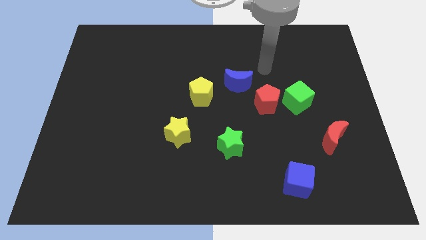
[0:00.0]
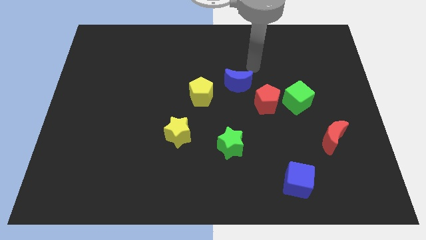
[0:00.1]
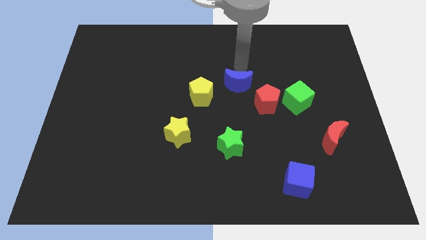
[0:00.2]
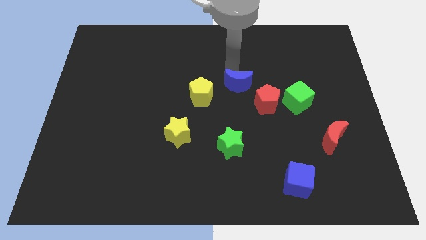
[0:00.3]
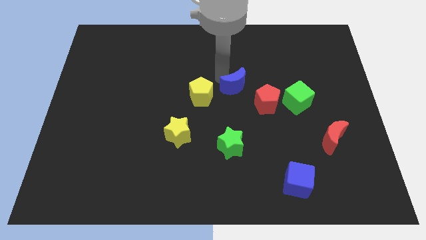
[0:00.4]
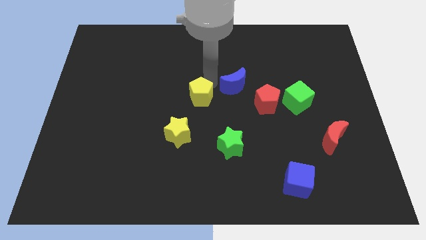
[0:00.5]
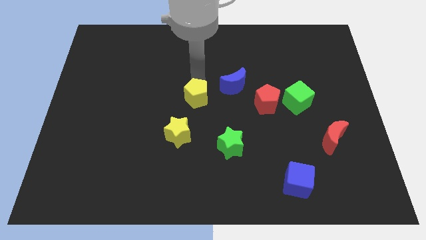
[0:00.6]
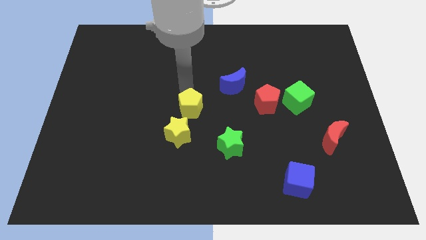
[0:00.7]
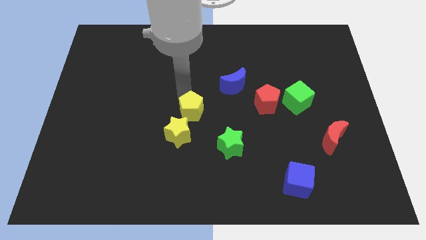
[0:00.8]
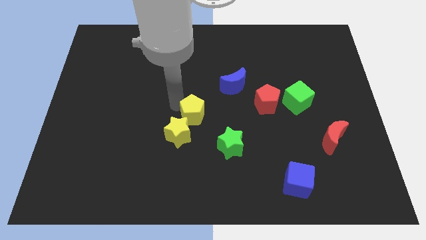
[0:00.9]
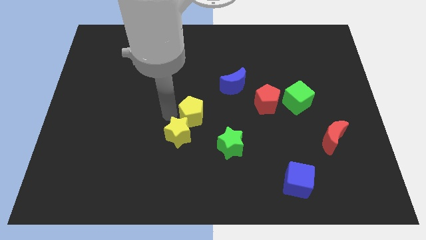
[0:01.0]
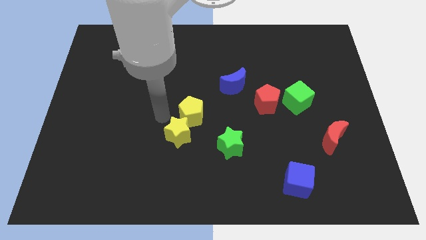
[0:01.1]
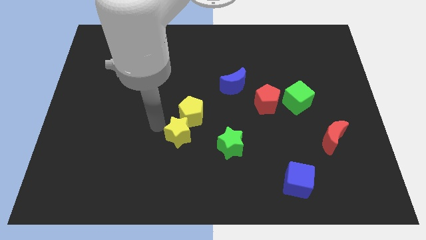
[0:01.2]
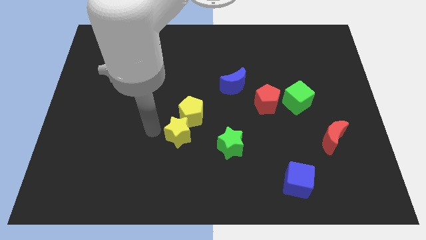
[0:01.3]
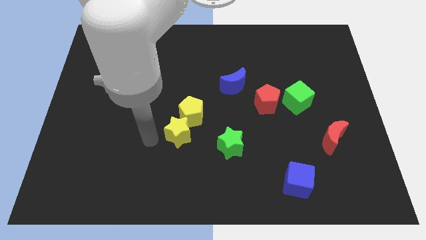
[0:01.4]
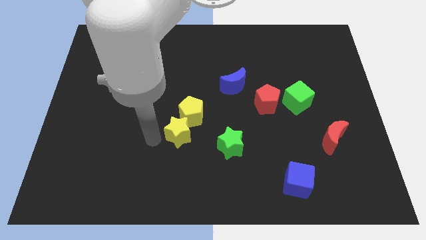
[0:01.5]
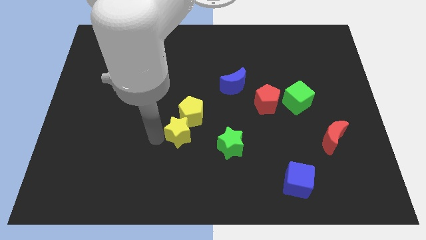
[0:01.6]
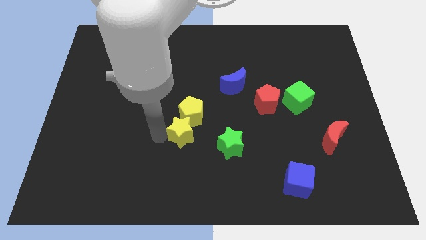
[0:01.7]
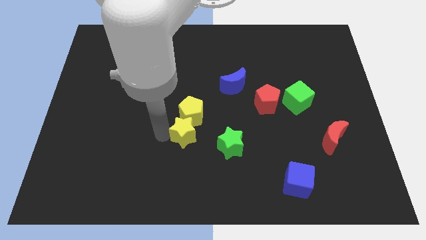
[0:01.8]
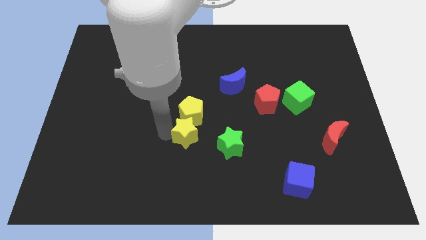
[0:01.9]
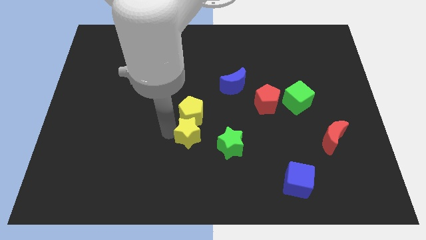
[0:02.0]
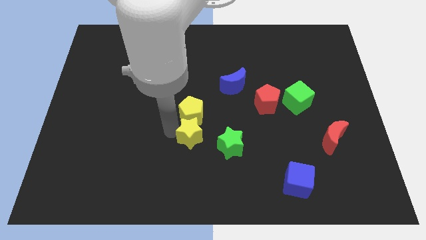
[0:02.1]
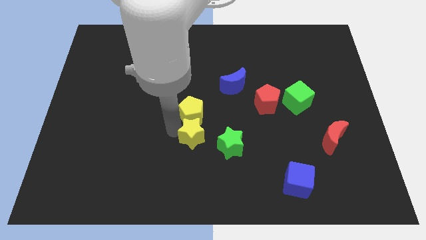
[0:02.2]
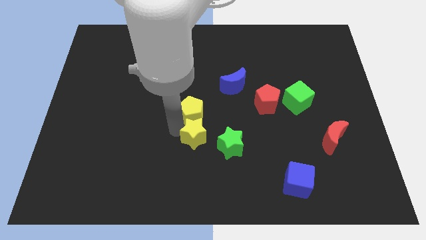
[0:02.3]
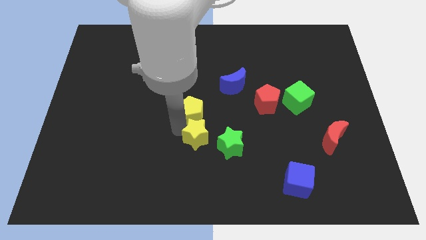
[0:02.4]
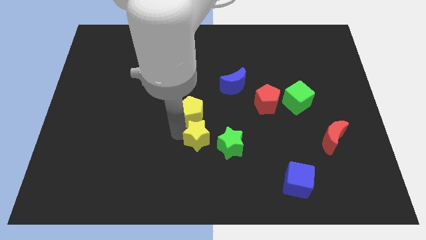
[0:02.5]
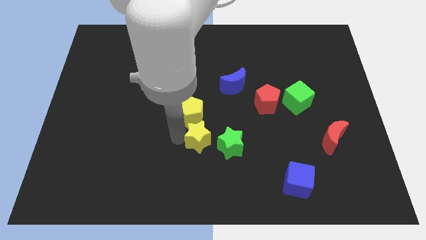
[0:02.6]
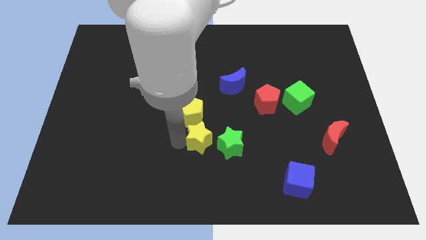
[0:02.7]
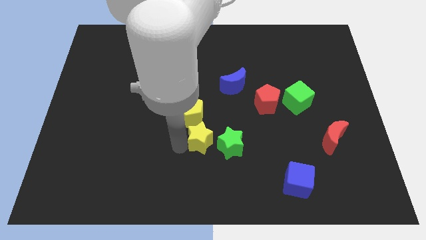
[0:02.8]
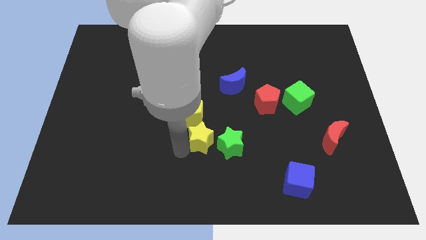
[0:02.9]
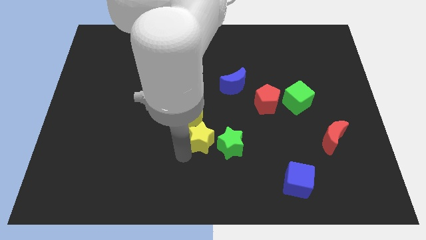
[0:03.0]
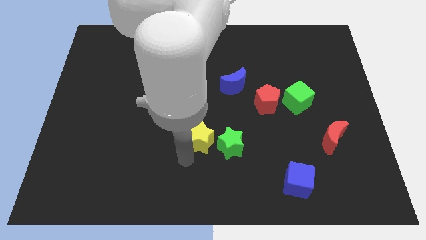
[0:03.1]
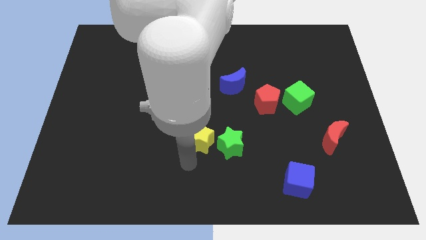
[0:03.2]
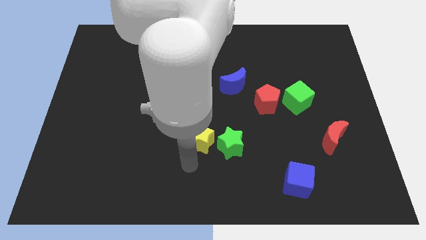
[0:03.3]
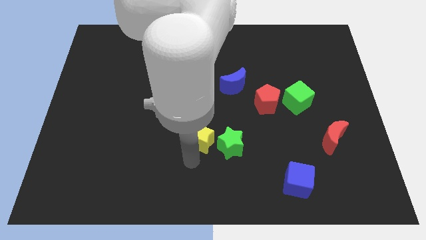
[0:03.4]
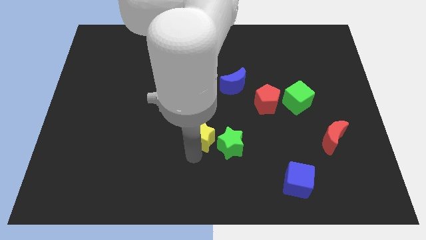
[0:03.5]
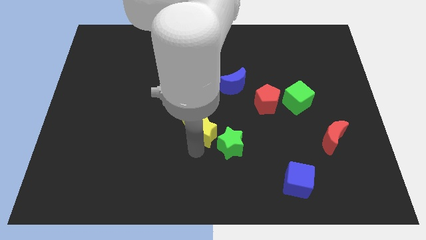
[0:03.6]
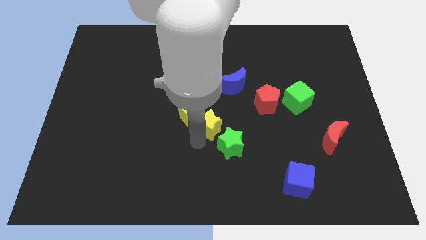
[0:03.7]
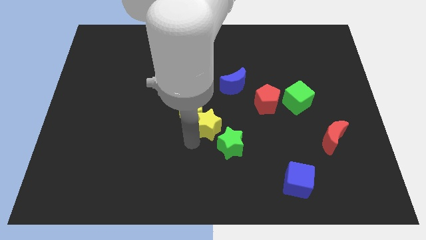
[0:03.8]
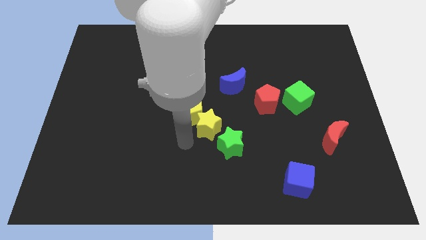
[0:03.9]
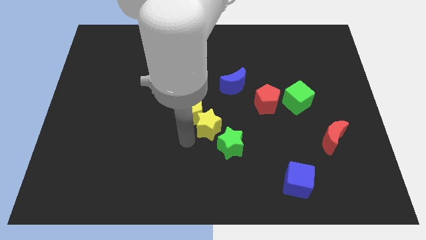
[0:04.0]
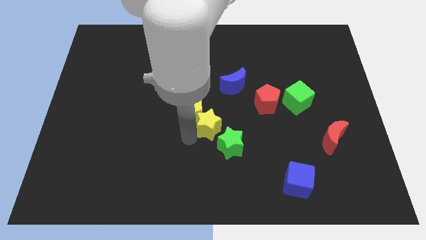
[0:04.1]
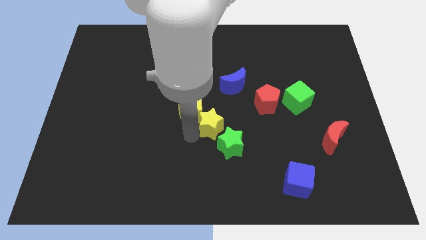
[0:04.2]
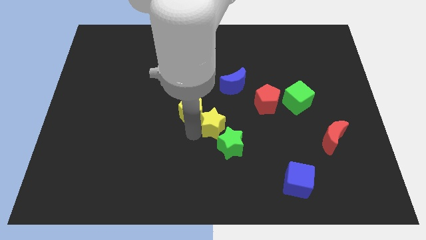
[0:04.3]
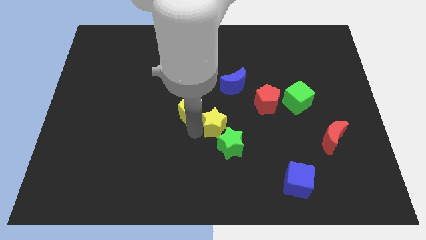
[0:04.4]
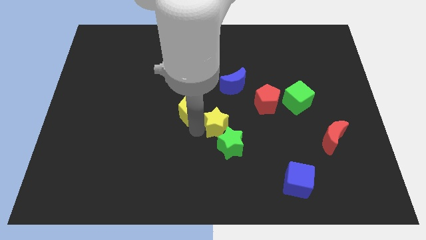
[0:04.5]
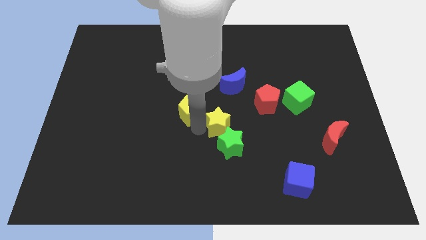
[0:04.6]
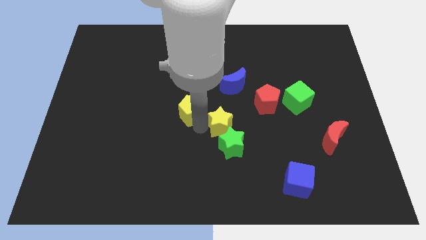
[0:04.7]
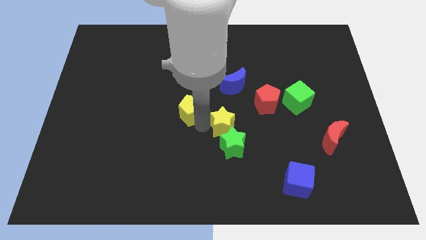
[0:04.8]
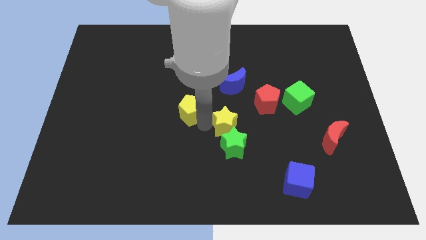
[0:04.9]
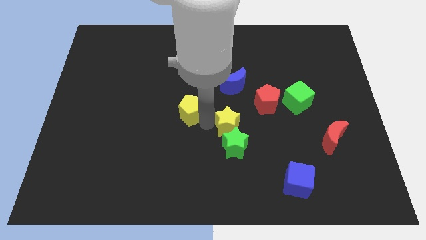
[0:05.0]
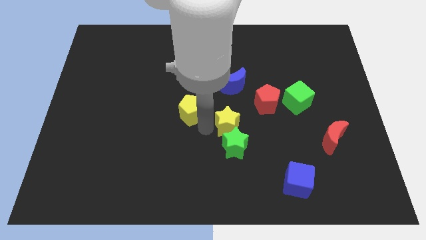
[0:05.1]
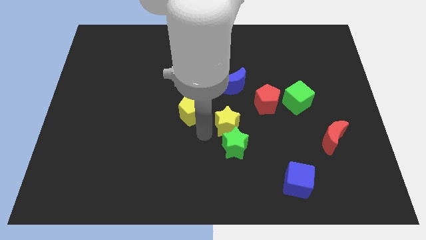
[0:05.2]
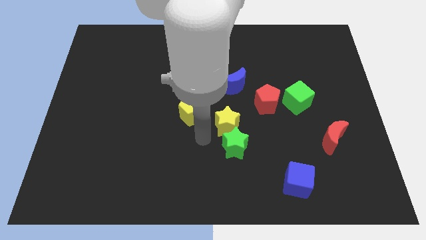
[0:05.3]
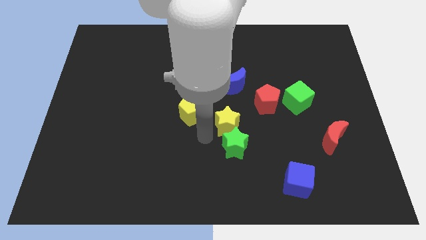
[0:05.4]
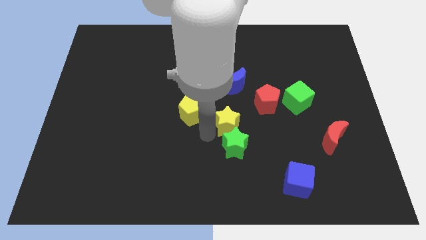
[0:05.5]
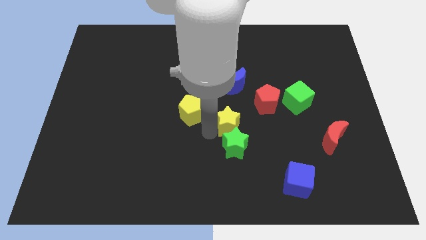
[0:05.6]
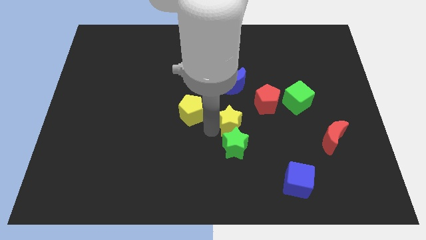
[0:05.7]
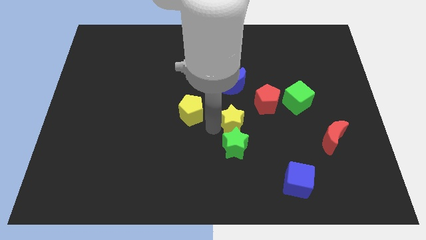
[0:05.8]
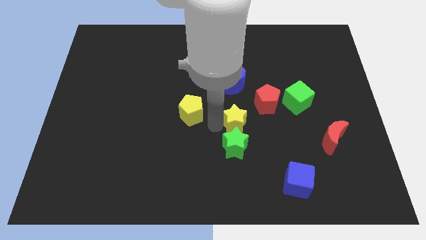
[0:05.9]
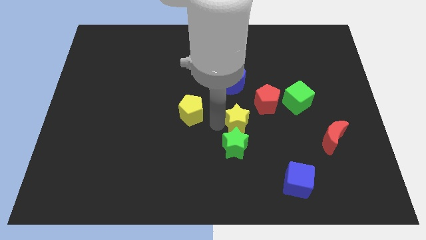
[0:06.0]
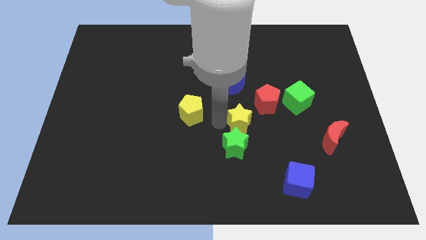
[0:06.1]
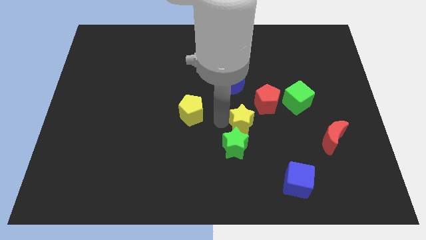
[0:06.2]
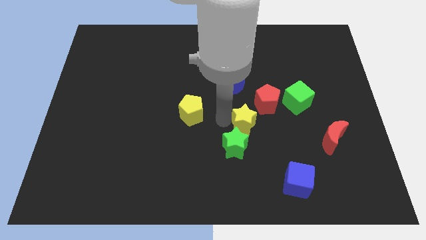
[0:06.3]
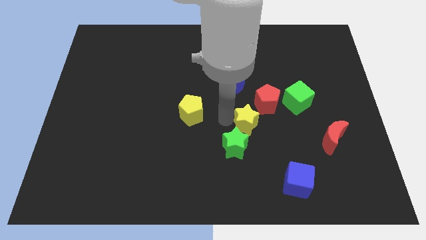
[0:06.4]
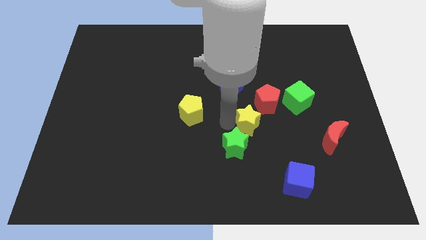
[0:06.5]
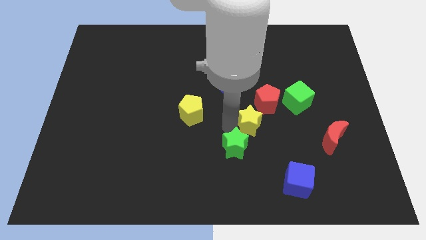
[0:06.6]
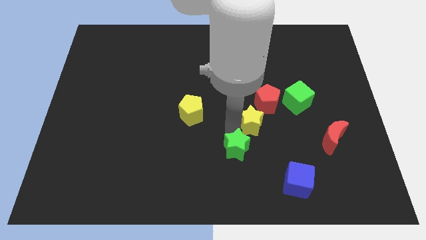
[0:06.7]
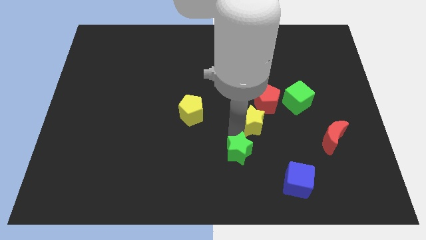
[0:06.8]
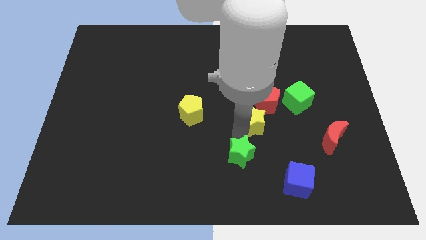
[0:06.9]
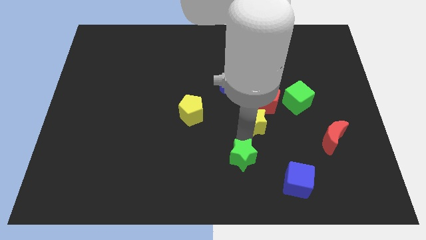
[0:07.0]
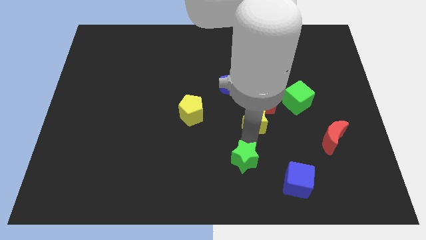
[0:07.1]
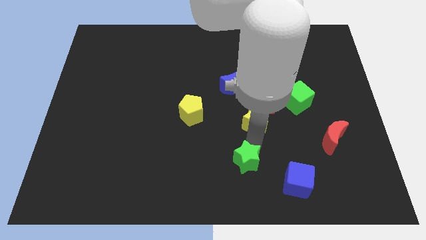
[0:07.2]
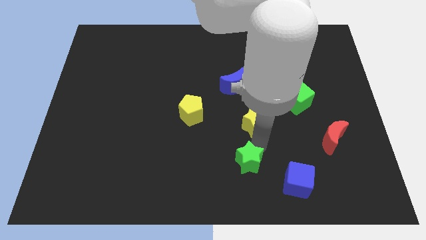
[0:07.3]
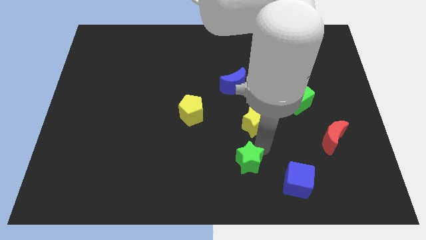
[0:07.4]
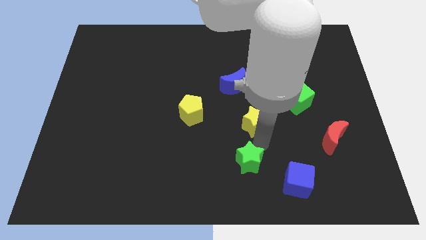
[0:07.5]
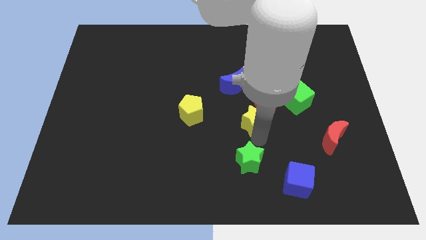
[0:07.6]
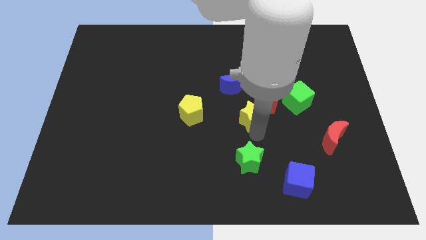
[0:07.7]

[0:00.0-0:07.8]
push the yellow star next to the red pentagon
